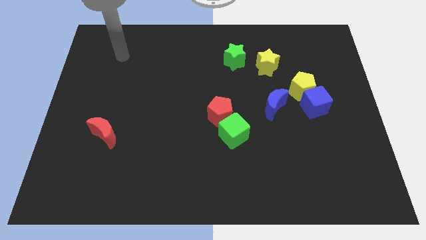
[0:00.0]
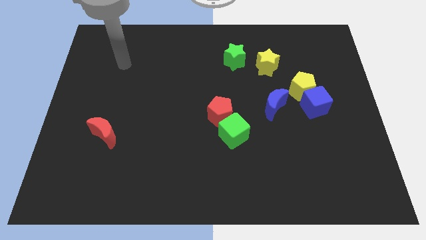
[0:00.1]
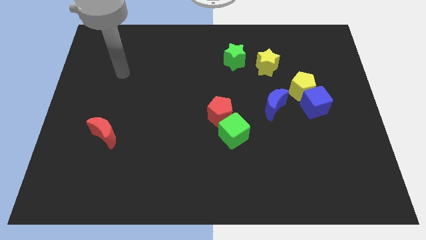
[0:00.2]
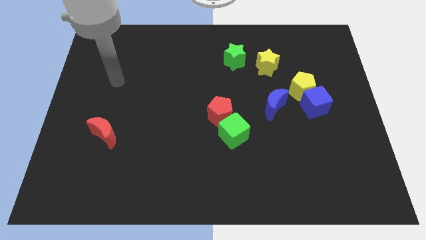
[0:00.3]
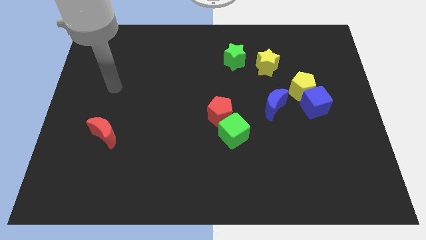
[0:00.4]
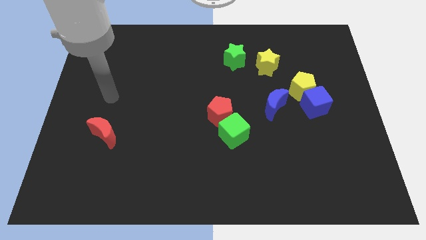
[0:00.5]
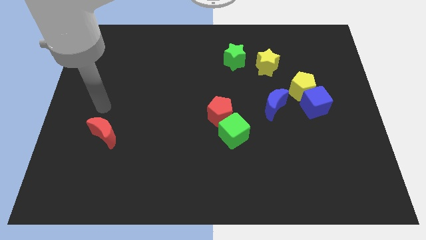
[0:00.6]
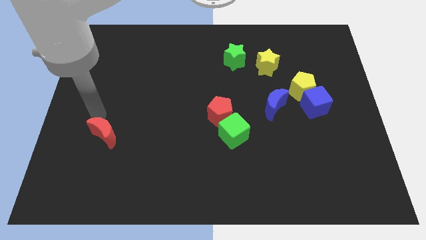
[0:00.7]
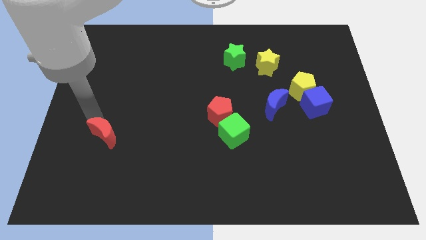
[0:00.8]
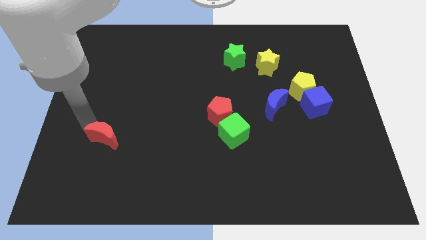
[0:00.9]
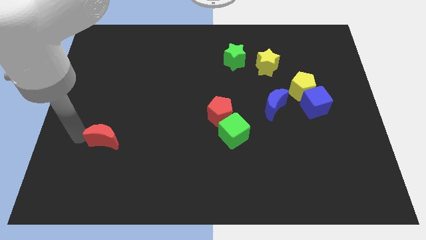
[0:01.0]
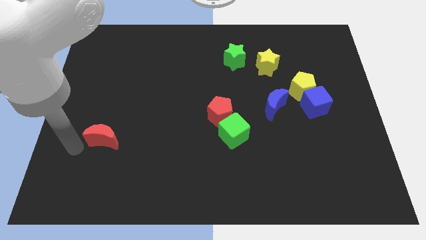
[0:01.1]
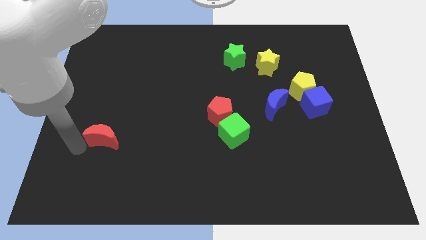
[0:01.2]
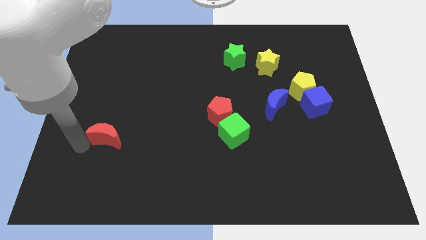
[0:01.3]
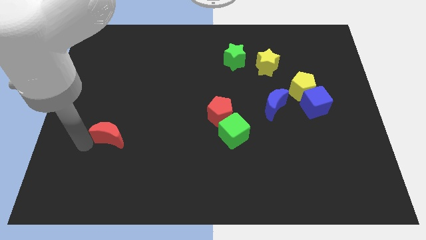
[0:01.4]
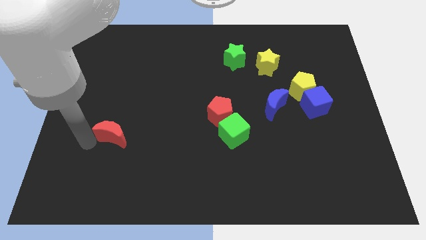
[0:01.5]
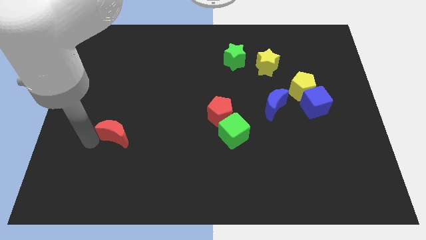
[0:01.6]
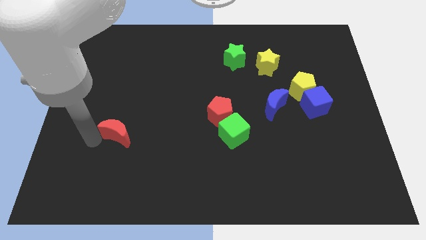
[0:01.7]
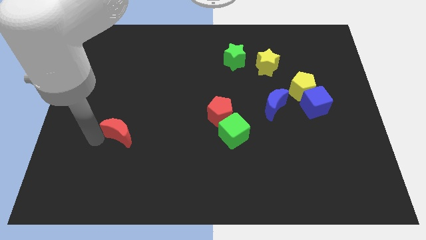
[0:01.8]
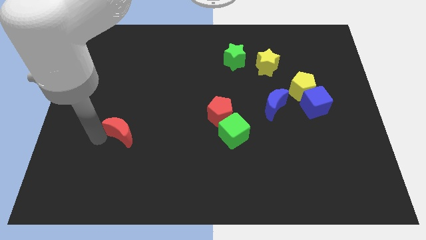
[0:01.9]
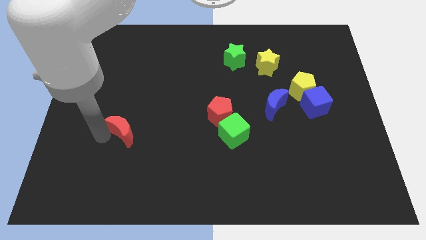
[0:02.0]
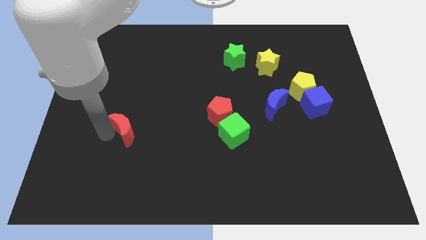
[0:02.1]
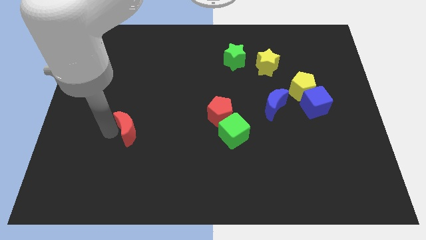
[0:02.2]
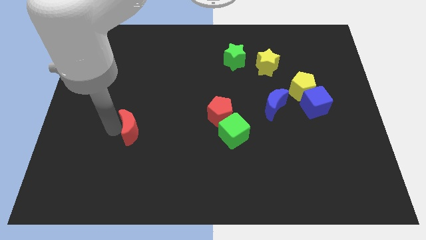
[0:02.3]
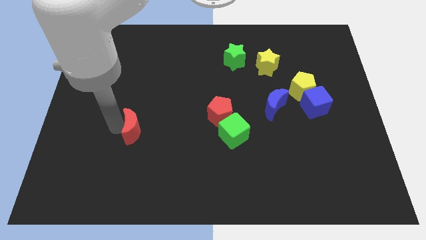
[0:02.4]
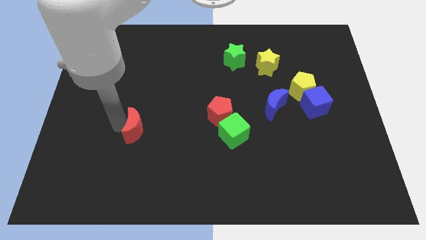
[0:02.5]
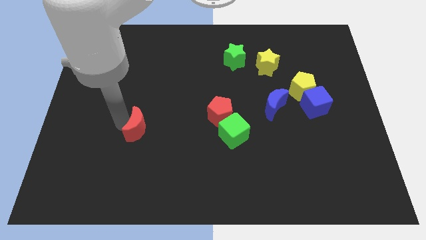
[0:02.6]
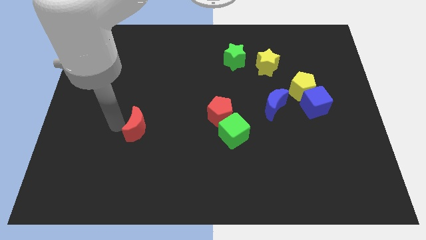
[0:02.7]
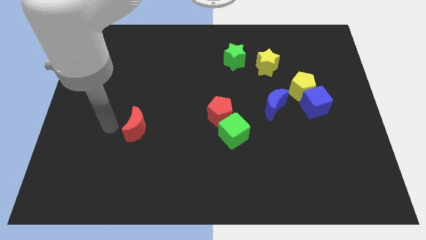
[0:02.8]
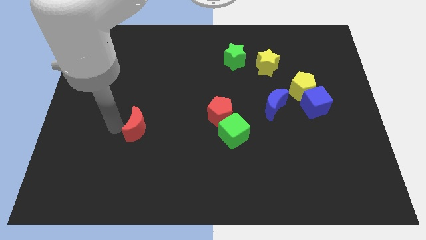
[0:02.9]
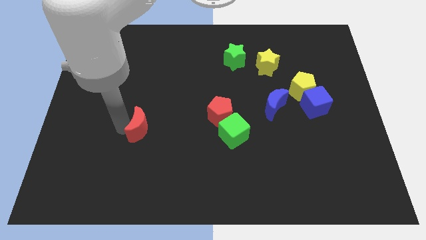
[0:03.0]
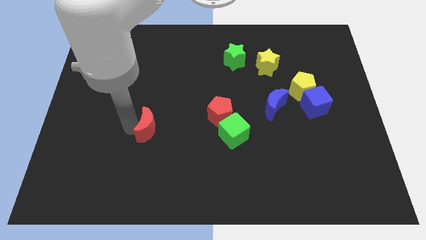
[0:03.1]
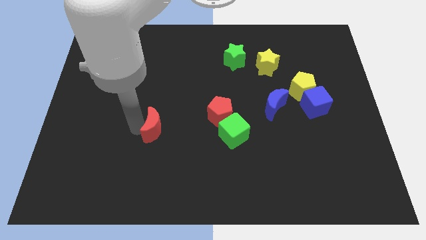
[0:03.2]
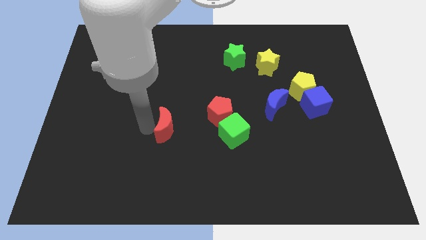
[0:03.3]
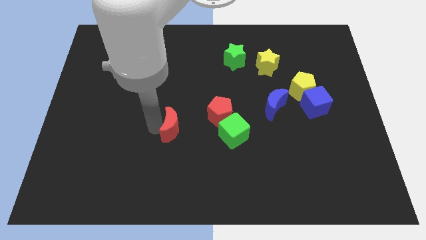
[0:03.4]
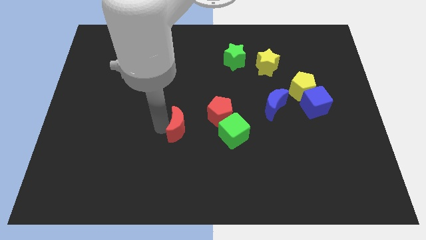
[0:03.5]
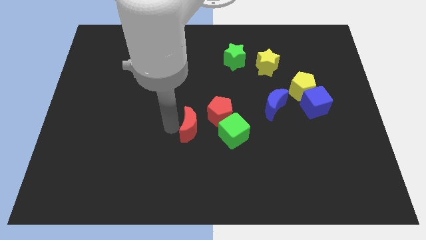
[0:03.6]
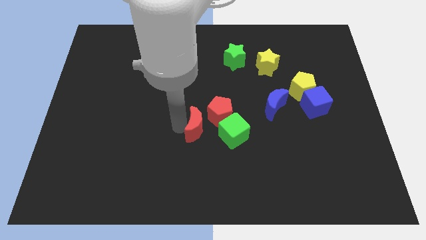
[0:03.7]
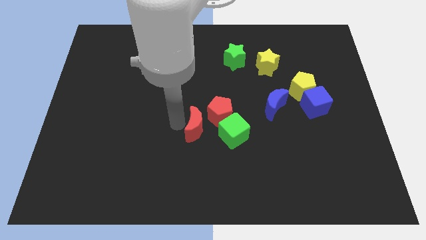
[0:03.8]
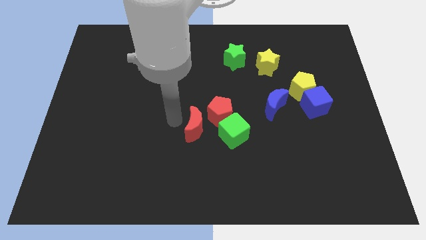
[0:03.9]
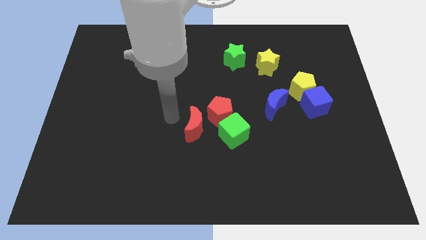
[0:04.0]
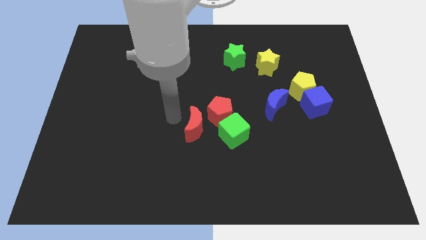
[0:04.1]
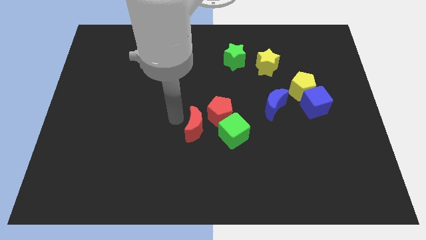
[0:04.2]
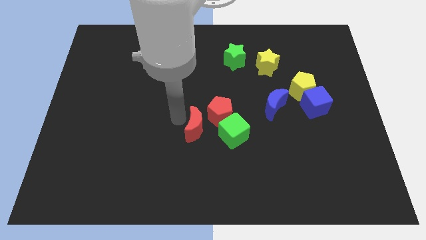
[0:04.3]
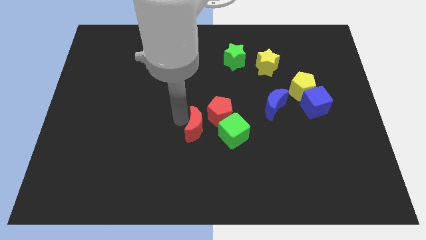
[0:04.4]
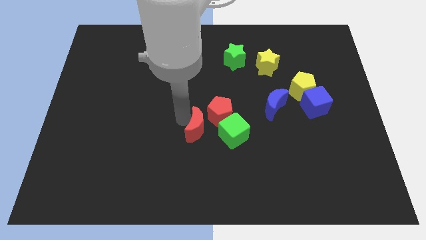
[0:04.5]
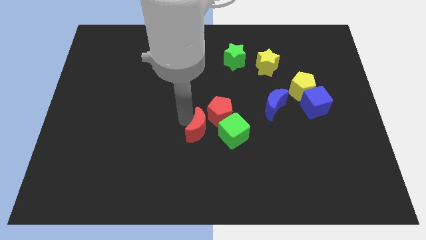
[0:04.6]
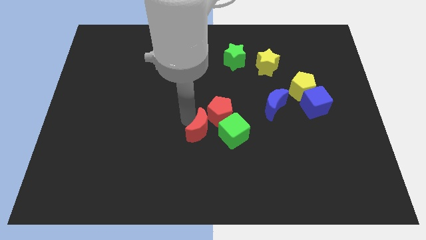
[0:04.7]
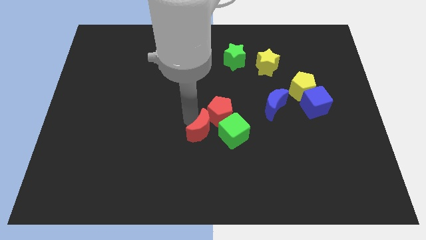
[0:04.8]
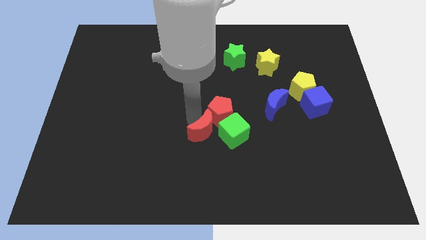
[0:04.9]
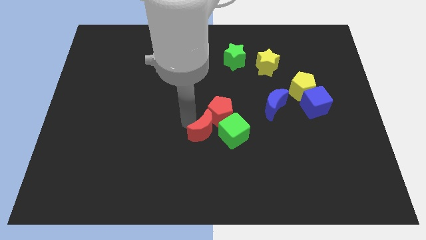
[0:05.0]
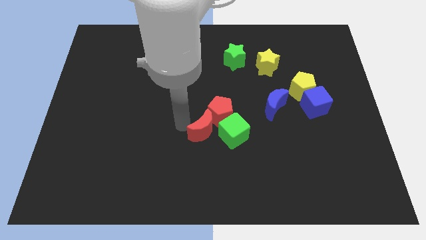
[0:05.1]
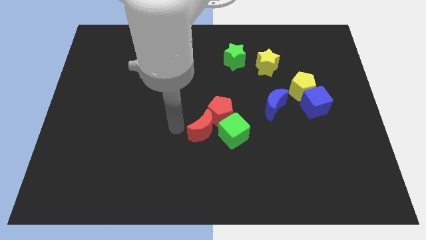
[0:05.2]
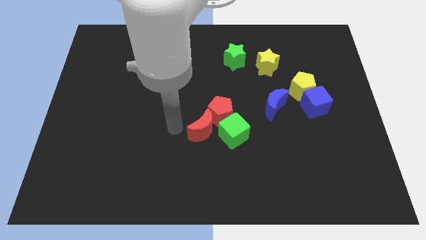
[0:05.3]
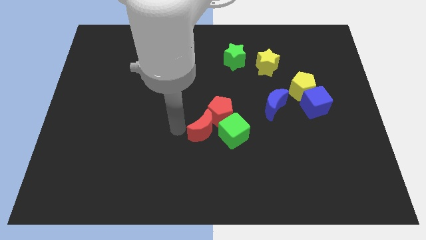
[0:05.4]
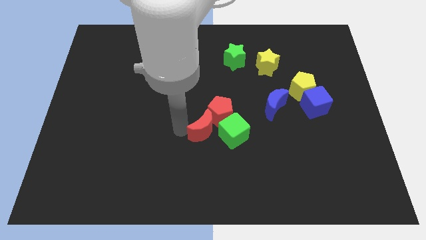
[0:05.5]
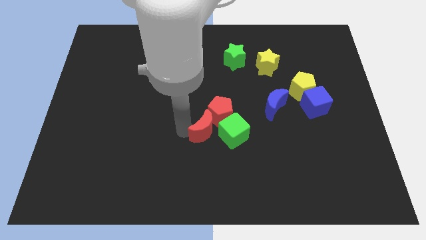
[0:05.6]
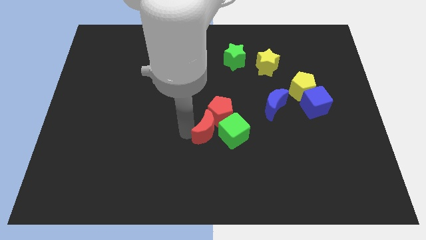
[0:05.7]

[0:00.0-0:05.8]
put the red moon next to the green cube

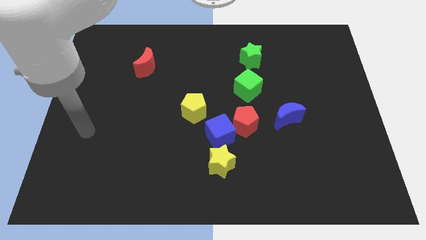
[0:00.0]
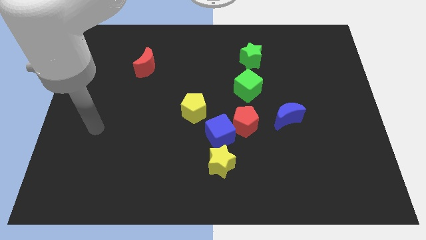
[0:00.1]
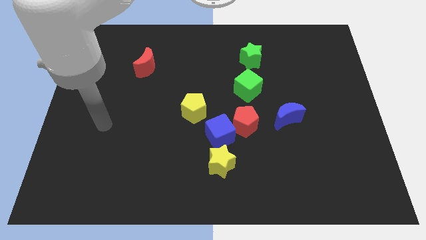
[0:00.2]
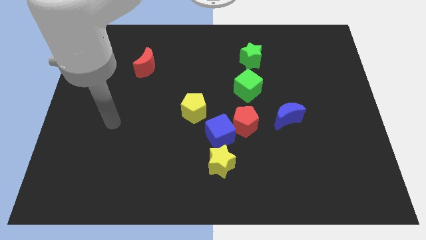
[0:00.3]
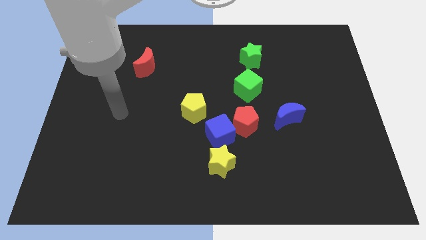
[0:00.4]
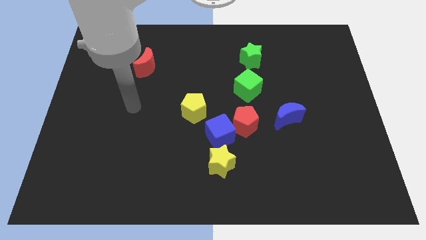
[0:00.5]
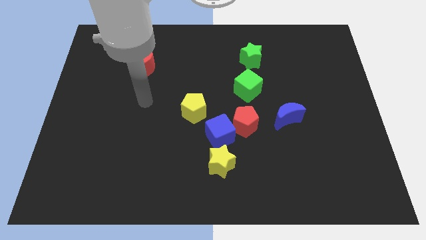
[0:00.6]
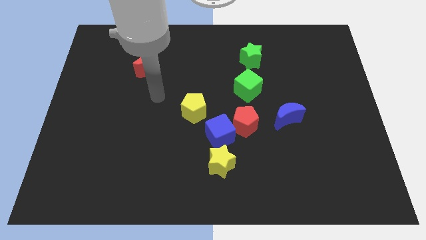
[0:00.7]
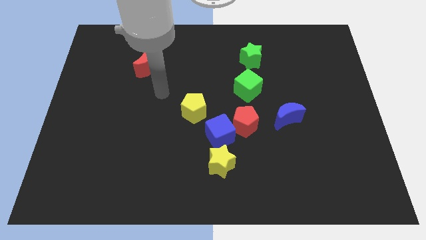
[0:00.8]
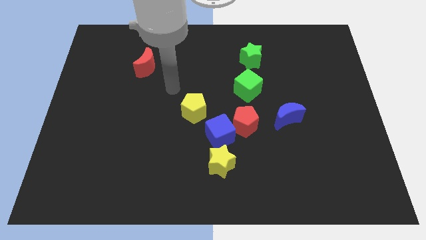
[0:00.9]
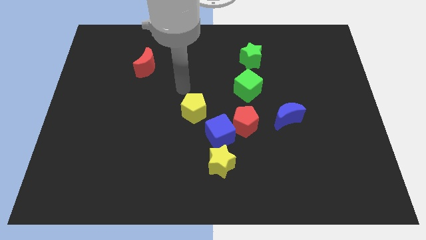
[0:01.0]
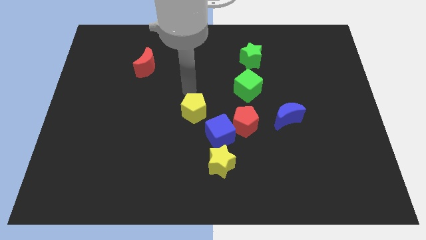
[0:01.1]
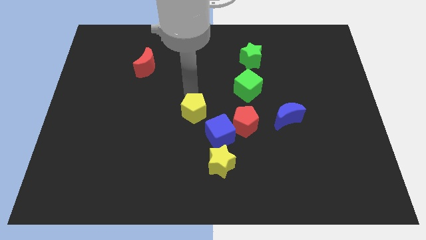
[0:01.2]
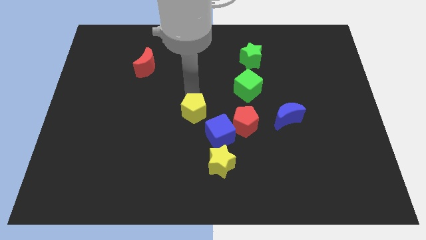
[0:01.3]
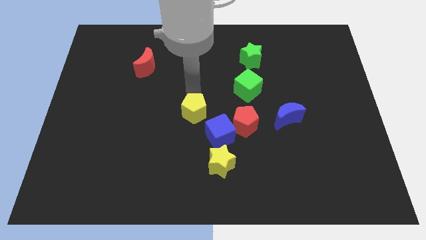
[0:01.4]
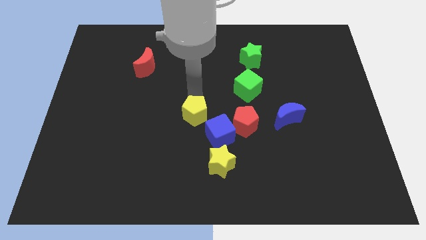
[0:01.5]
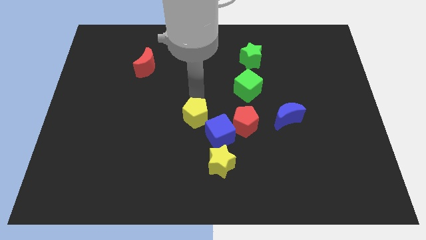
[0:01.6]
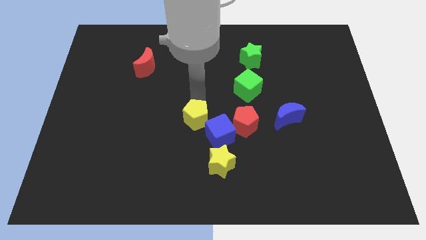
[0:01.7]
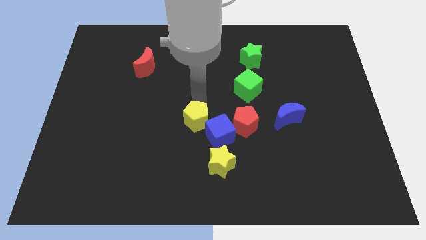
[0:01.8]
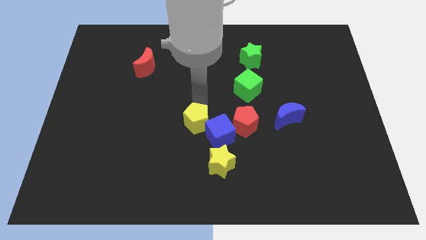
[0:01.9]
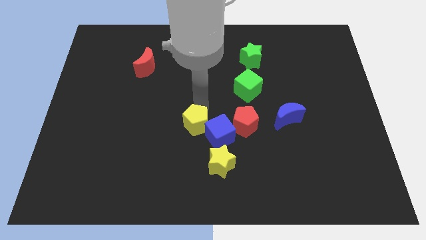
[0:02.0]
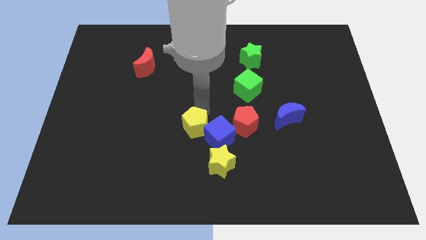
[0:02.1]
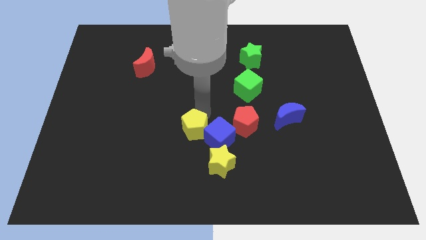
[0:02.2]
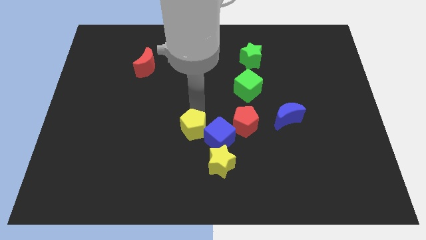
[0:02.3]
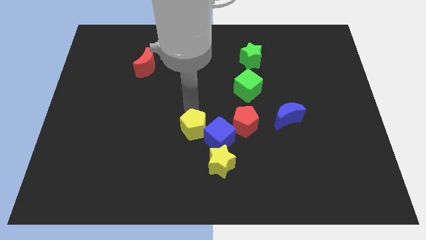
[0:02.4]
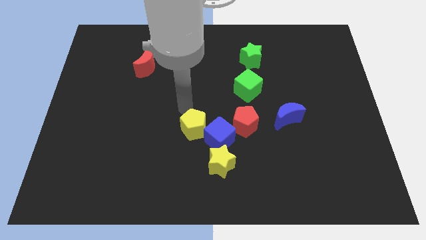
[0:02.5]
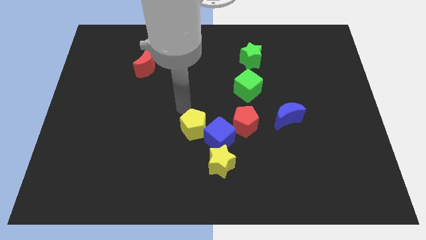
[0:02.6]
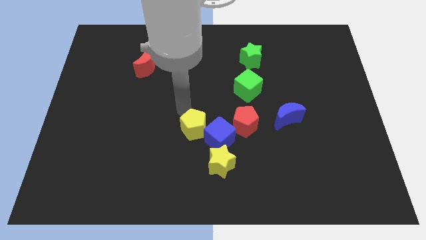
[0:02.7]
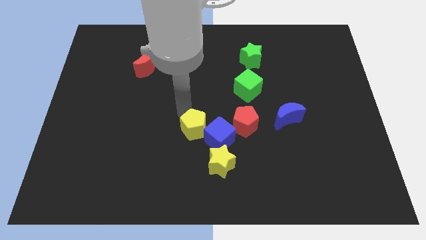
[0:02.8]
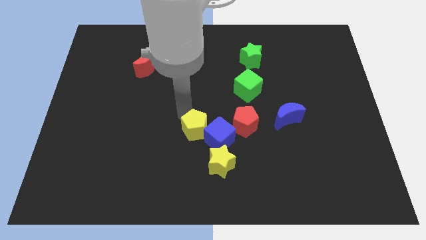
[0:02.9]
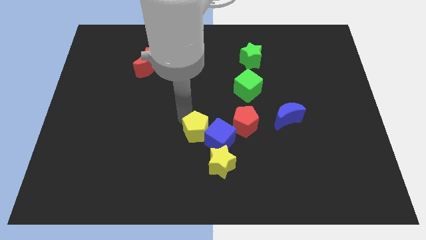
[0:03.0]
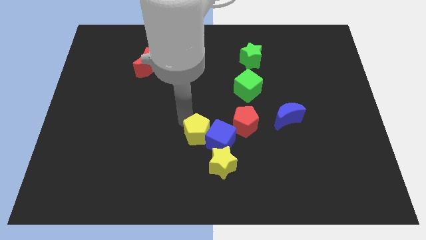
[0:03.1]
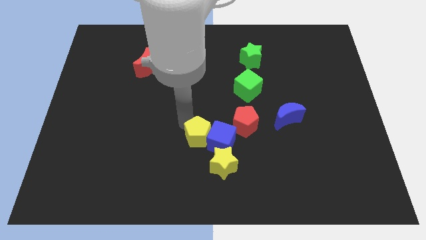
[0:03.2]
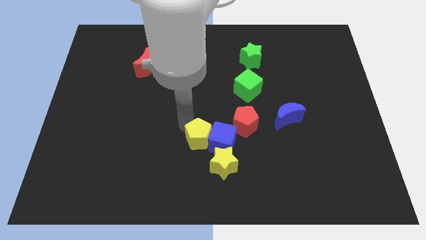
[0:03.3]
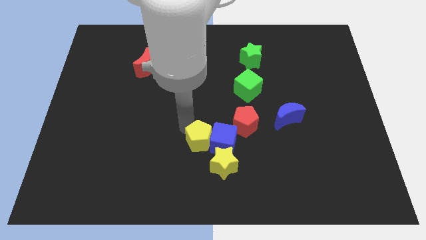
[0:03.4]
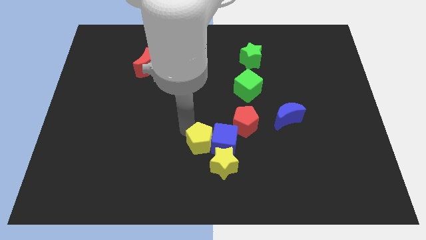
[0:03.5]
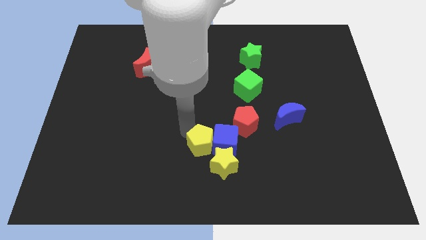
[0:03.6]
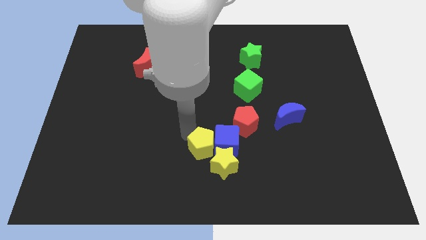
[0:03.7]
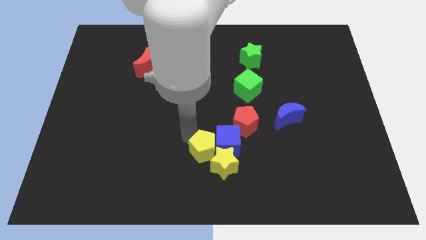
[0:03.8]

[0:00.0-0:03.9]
push the yellow pentagon close to the yellow star
